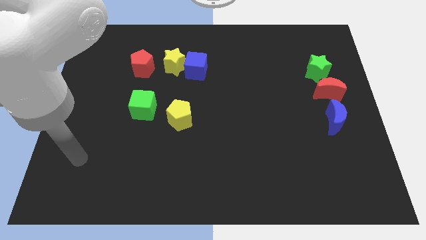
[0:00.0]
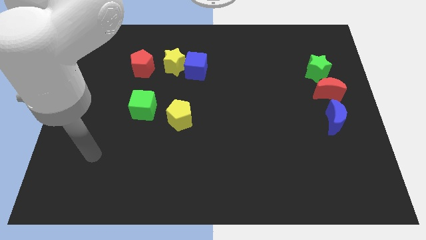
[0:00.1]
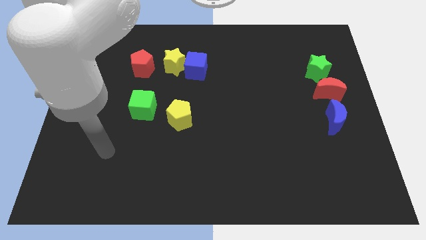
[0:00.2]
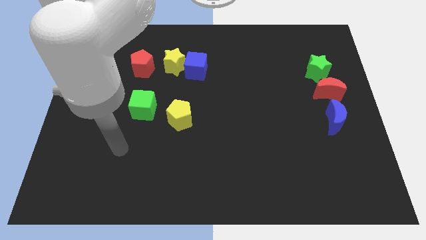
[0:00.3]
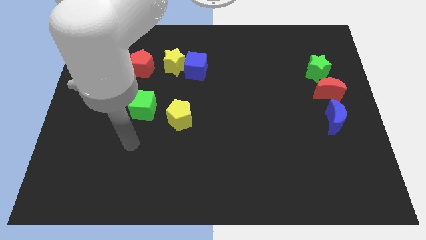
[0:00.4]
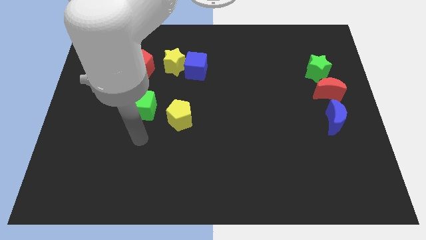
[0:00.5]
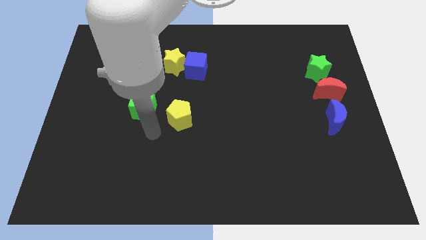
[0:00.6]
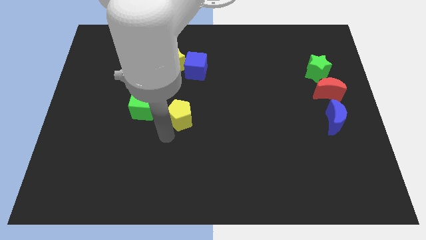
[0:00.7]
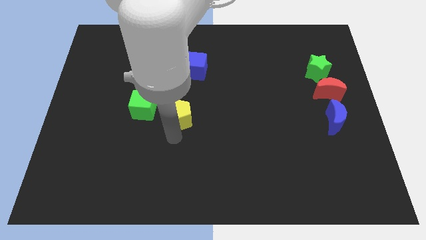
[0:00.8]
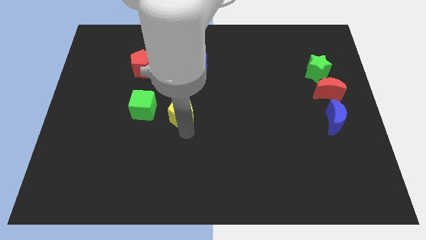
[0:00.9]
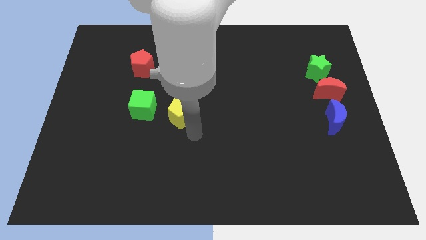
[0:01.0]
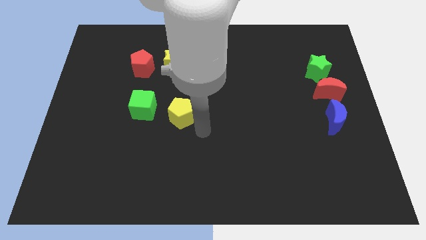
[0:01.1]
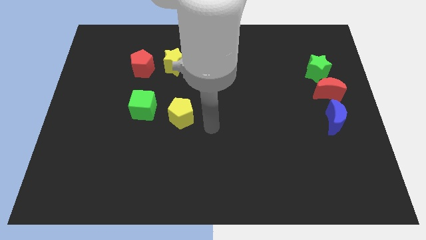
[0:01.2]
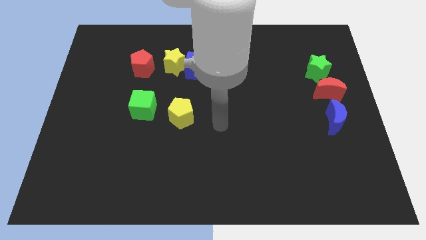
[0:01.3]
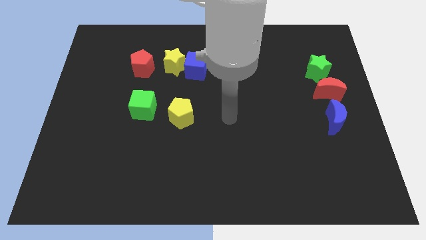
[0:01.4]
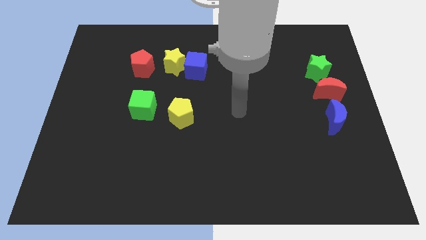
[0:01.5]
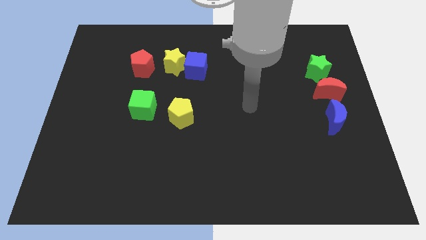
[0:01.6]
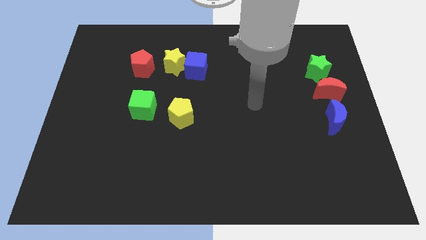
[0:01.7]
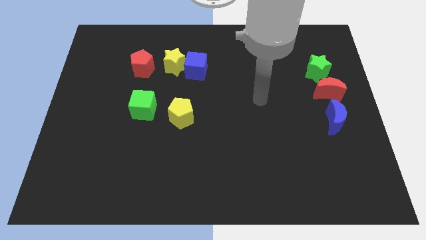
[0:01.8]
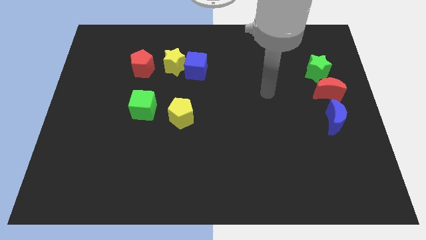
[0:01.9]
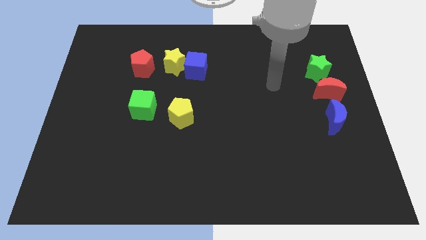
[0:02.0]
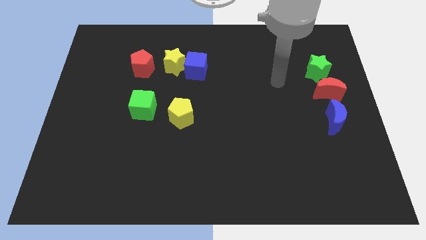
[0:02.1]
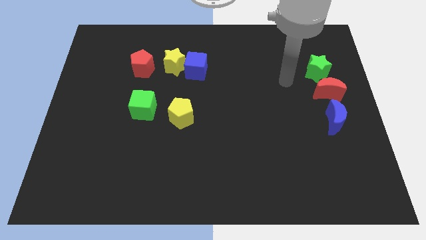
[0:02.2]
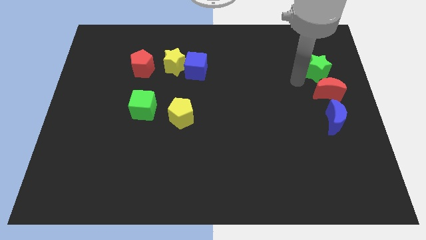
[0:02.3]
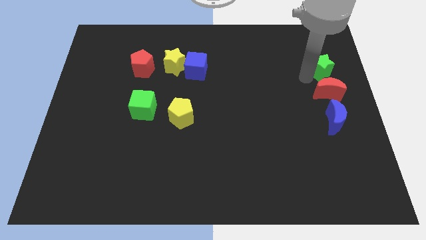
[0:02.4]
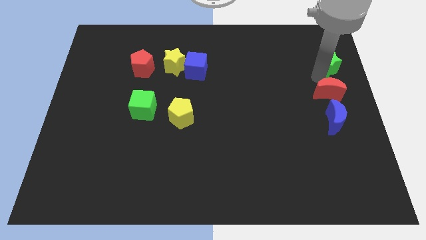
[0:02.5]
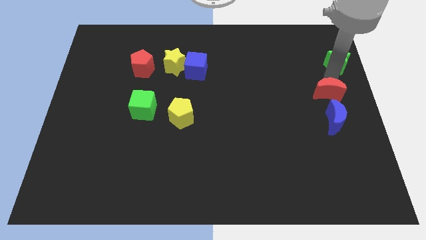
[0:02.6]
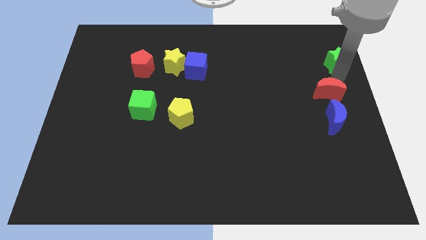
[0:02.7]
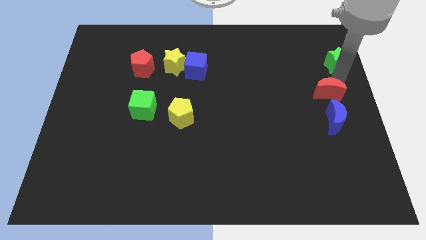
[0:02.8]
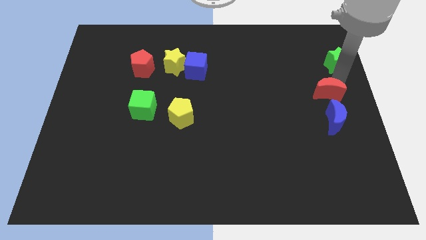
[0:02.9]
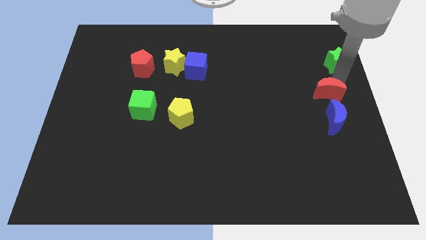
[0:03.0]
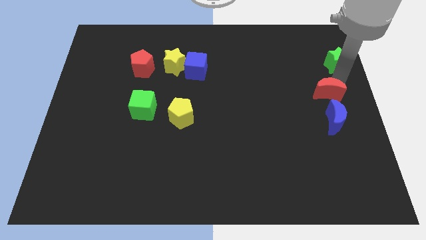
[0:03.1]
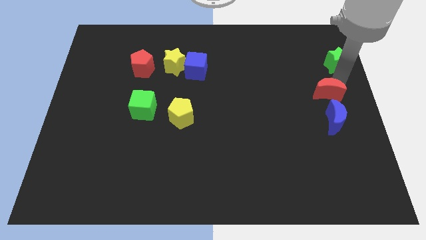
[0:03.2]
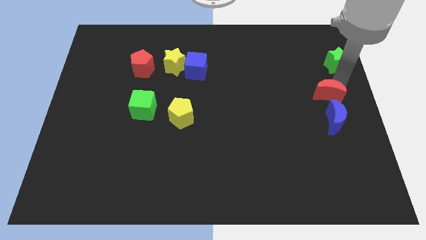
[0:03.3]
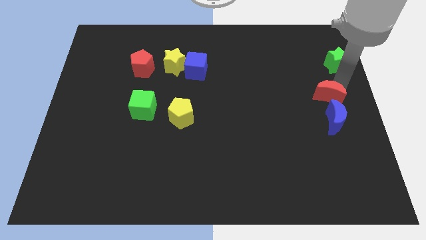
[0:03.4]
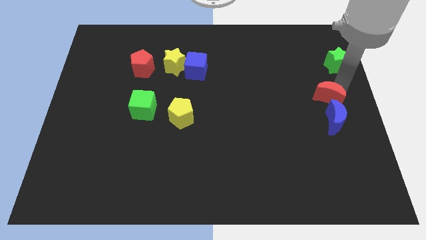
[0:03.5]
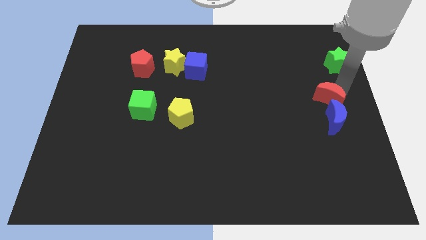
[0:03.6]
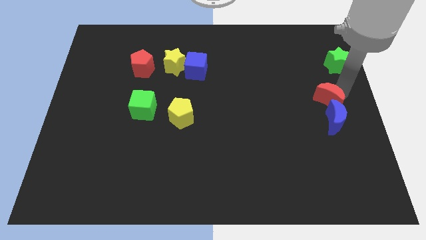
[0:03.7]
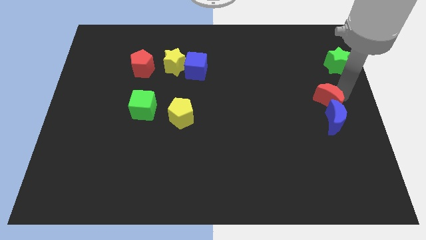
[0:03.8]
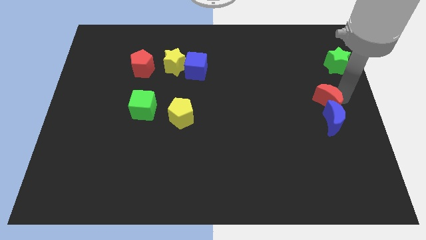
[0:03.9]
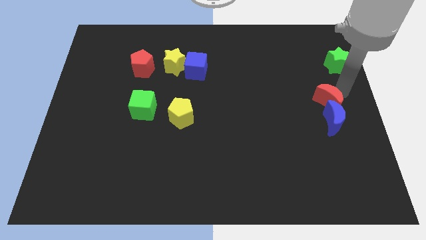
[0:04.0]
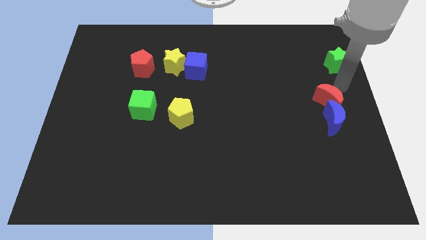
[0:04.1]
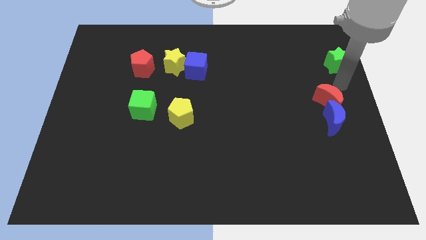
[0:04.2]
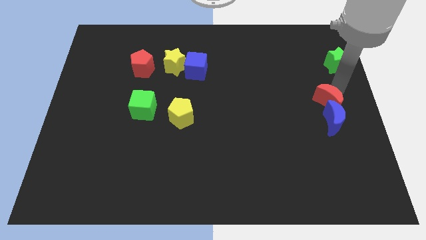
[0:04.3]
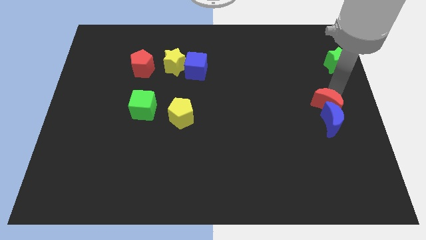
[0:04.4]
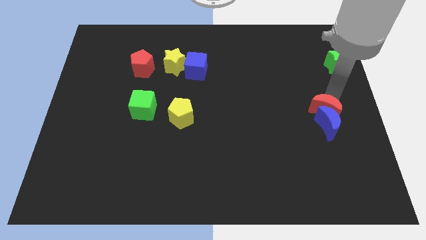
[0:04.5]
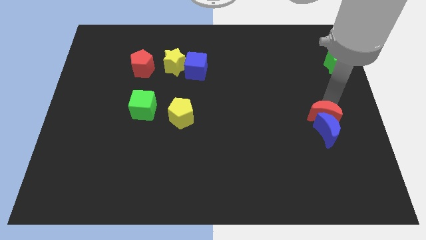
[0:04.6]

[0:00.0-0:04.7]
slide the red moon somewhat downwards

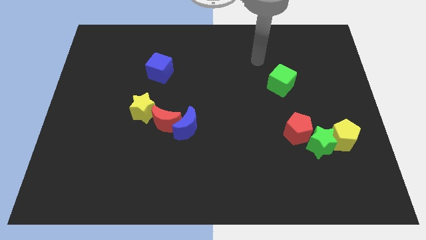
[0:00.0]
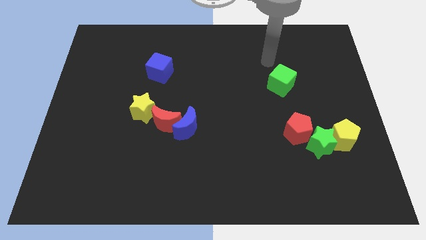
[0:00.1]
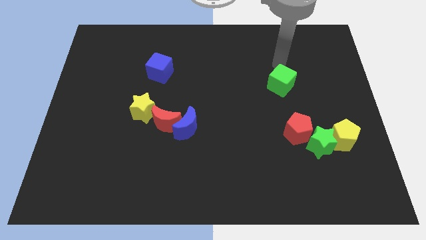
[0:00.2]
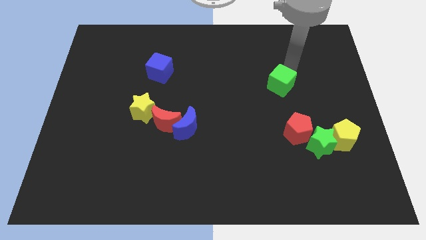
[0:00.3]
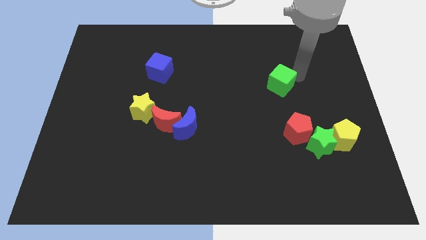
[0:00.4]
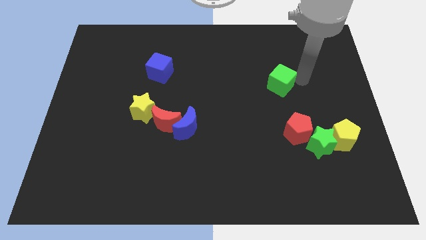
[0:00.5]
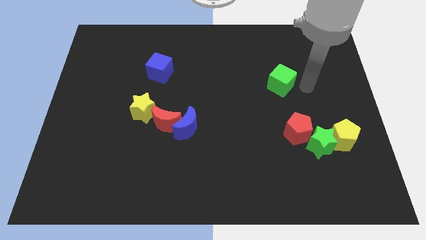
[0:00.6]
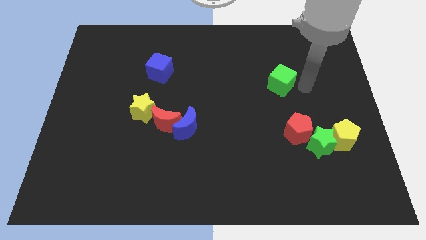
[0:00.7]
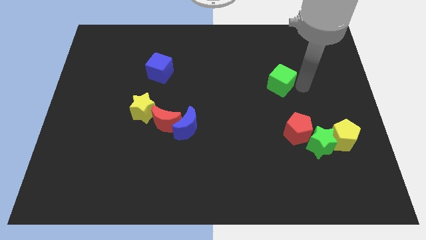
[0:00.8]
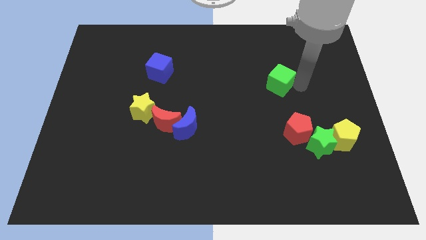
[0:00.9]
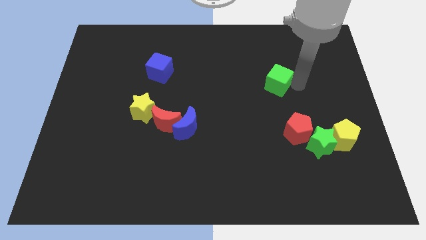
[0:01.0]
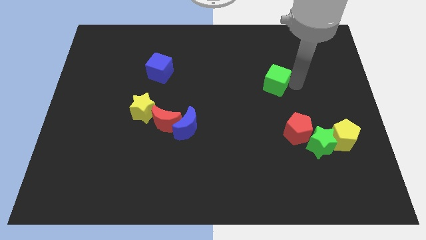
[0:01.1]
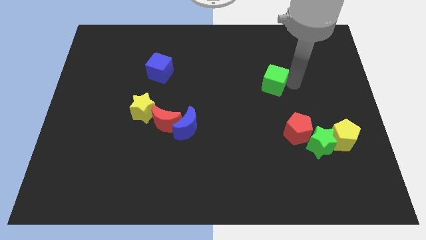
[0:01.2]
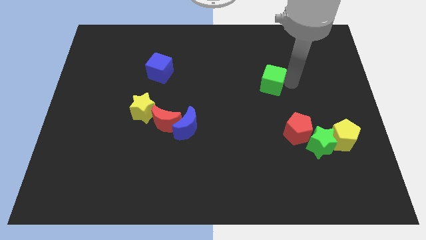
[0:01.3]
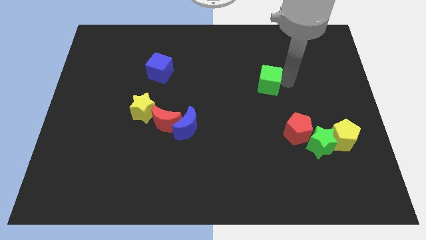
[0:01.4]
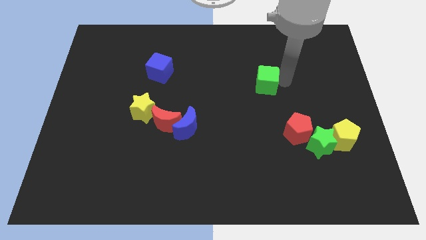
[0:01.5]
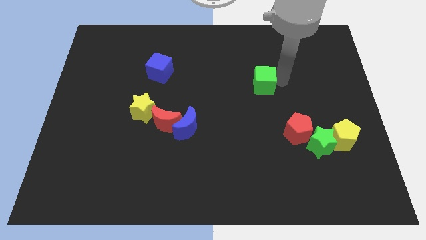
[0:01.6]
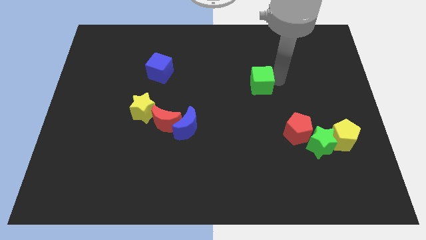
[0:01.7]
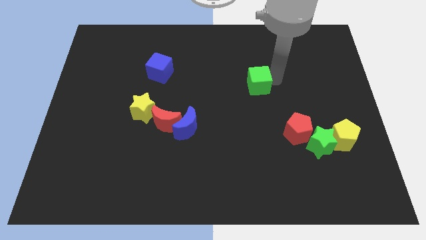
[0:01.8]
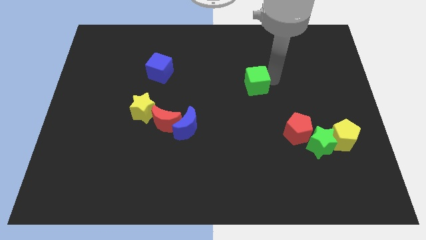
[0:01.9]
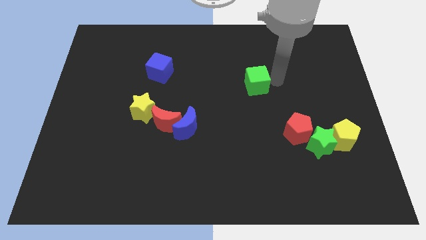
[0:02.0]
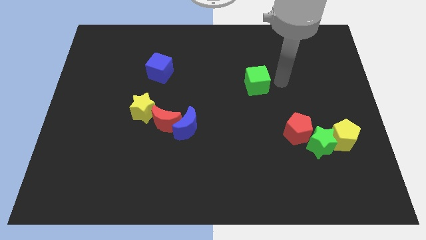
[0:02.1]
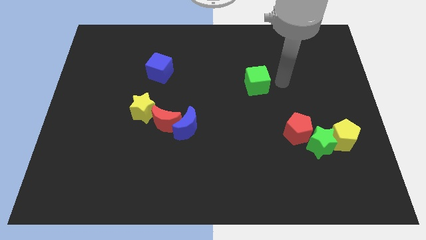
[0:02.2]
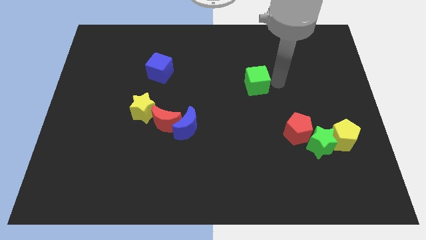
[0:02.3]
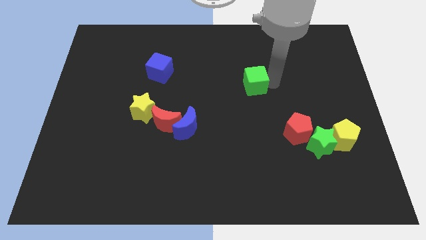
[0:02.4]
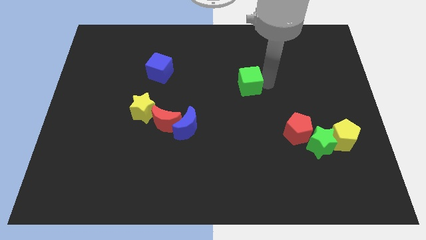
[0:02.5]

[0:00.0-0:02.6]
move the green cube a little bit to the left

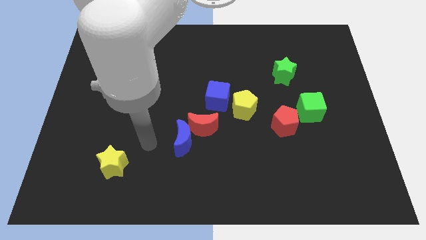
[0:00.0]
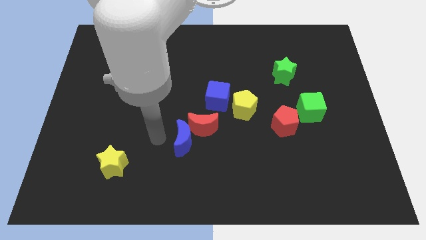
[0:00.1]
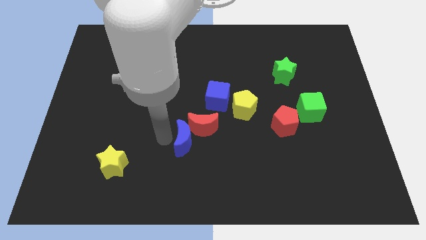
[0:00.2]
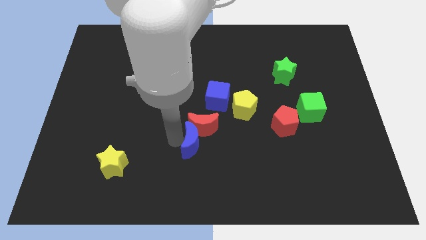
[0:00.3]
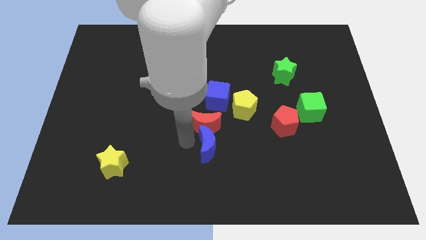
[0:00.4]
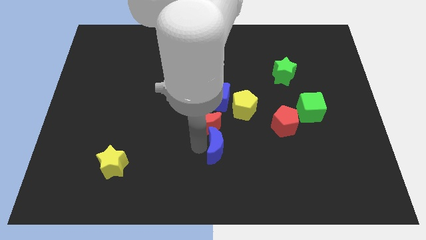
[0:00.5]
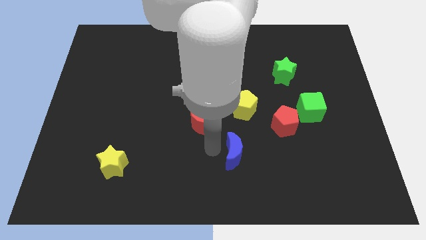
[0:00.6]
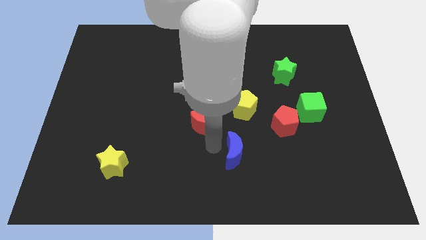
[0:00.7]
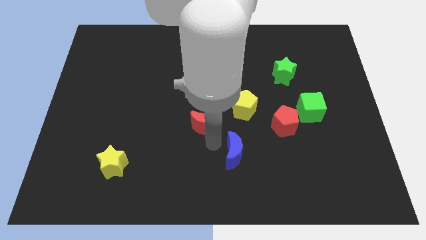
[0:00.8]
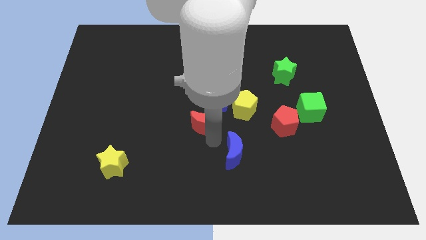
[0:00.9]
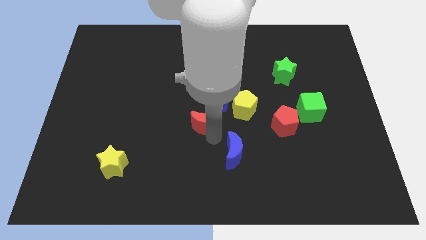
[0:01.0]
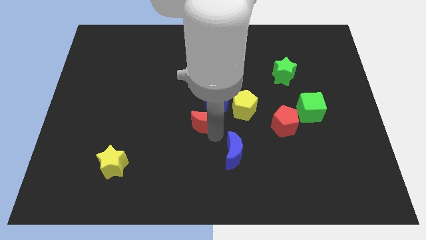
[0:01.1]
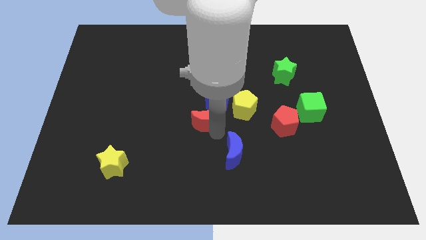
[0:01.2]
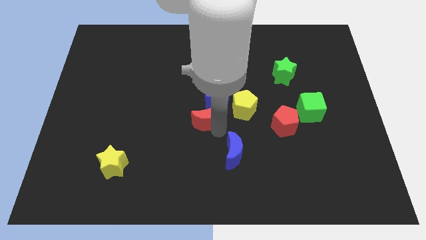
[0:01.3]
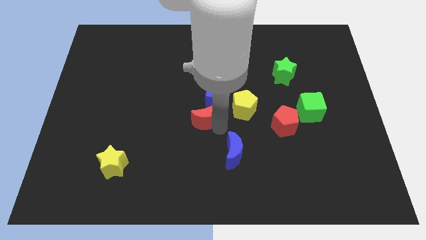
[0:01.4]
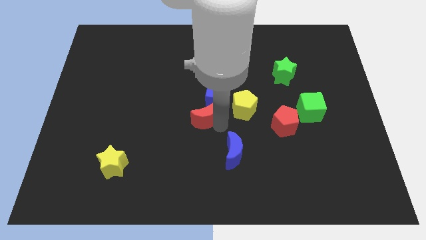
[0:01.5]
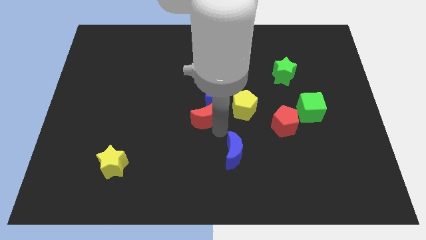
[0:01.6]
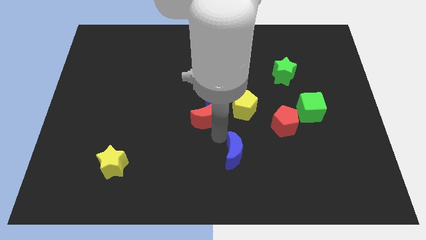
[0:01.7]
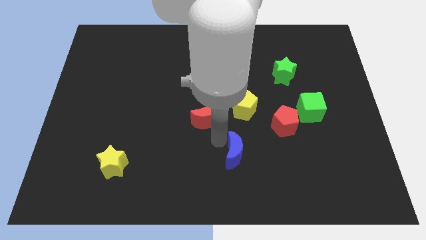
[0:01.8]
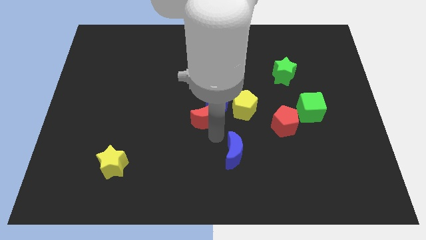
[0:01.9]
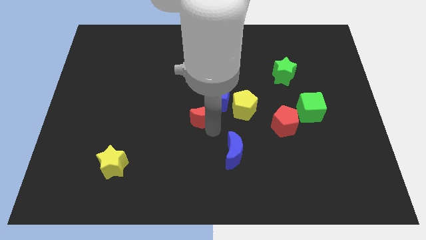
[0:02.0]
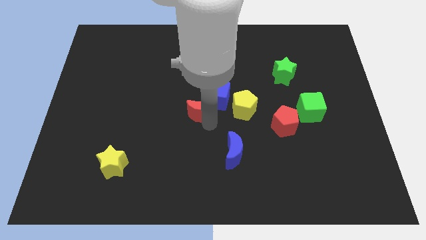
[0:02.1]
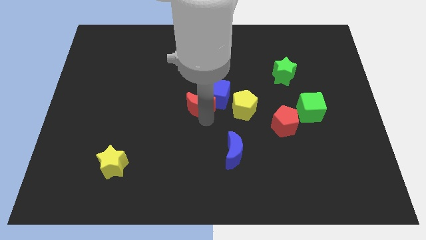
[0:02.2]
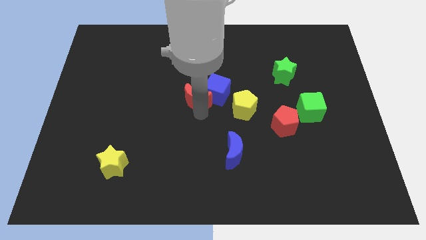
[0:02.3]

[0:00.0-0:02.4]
move the red moon up a bit
